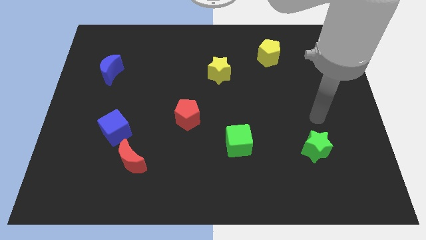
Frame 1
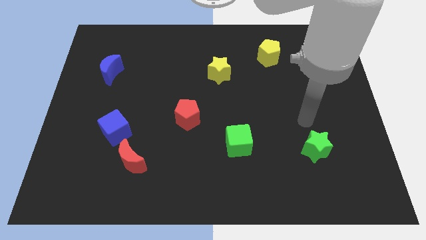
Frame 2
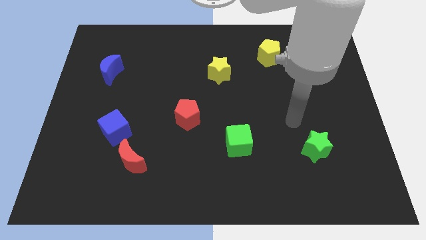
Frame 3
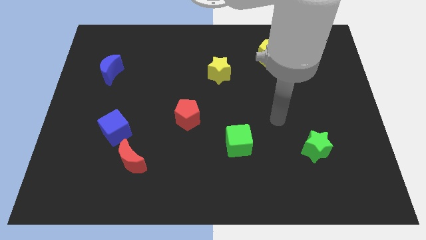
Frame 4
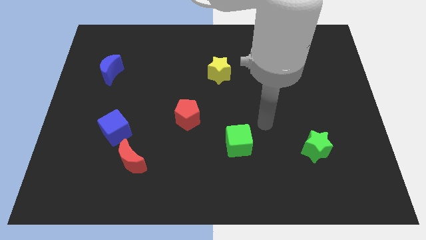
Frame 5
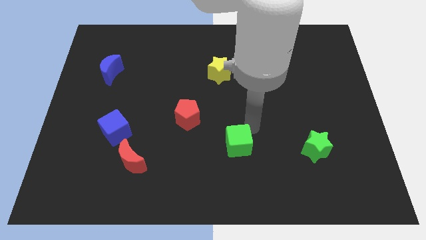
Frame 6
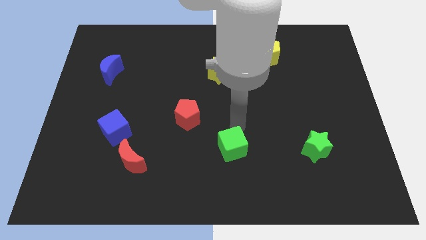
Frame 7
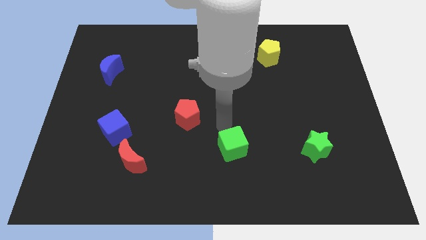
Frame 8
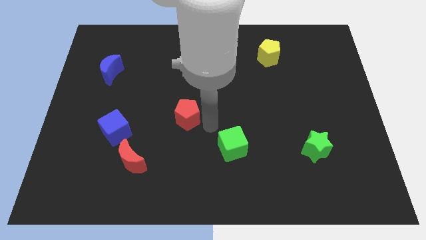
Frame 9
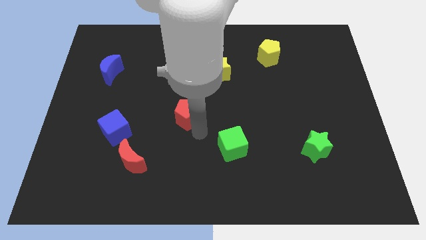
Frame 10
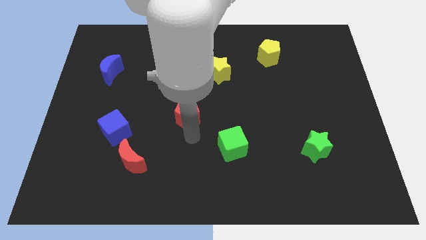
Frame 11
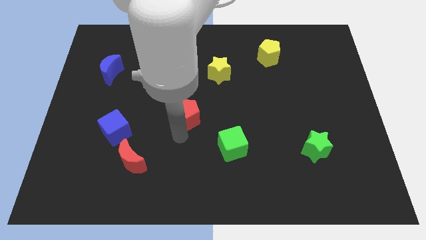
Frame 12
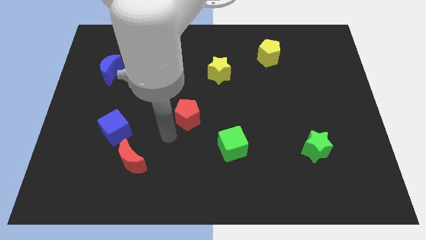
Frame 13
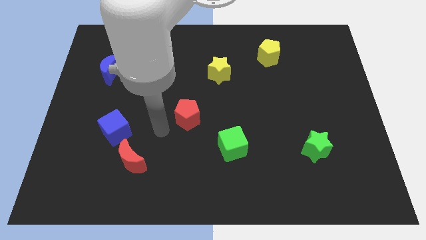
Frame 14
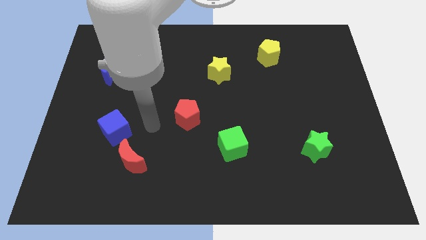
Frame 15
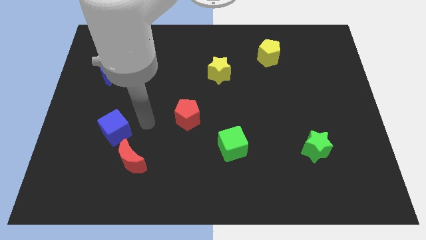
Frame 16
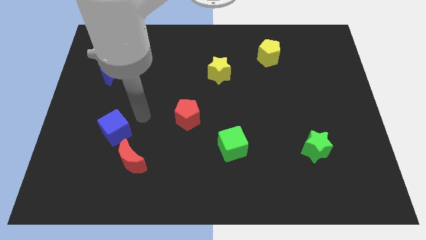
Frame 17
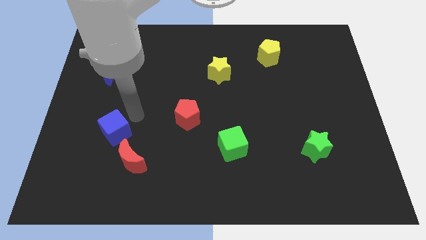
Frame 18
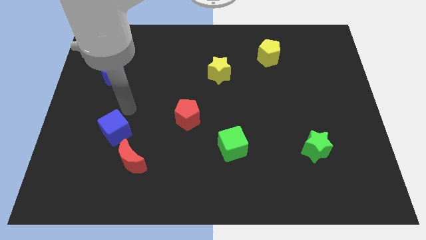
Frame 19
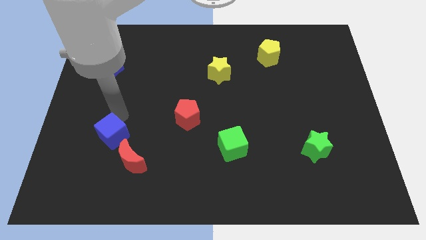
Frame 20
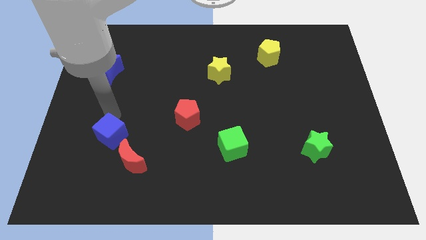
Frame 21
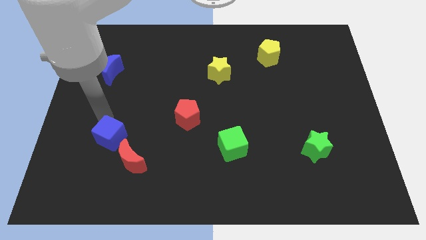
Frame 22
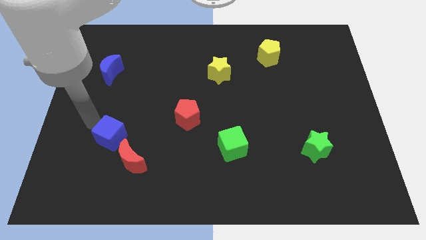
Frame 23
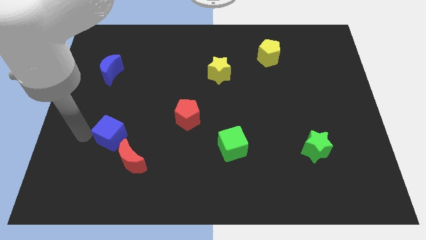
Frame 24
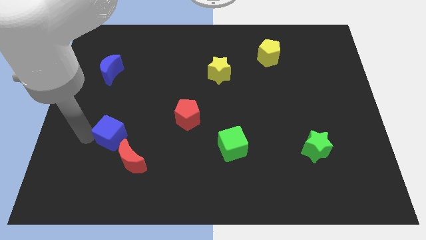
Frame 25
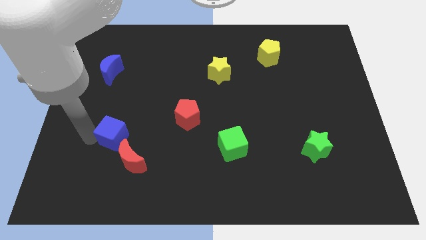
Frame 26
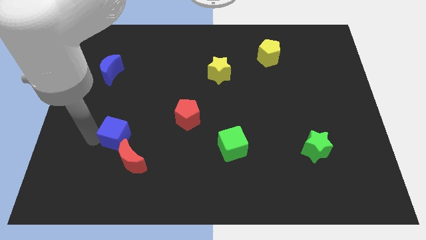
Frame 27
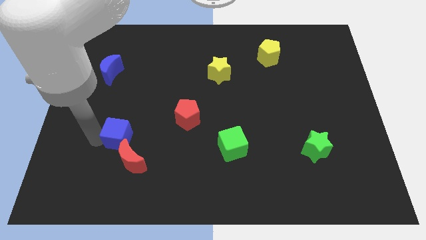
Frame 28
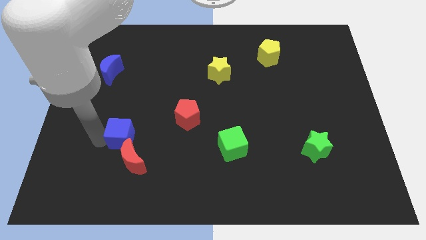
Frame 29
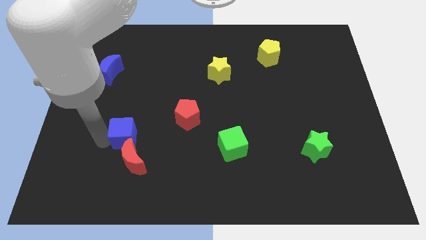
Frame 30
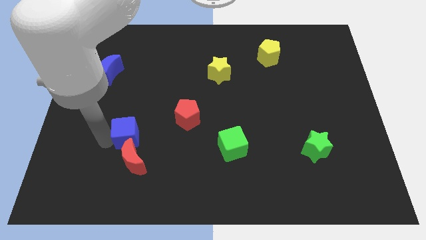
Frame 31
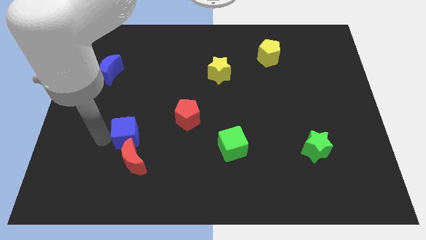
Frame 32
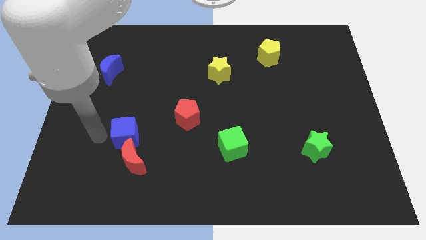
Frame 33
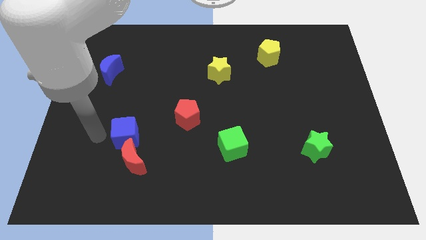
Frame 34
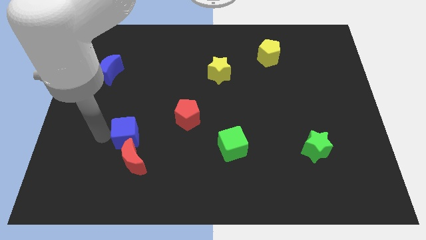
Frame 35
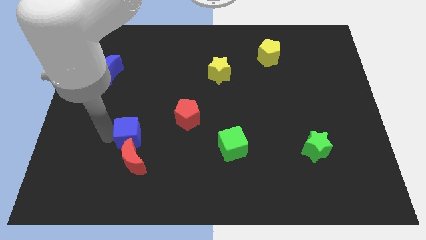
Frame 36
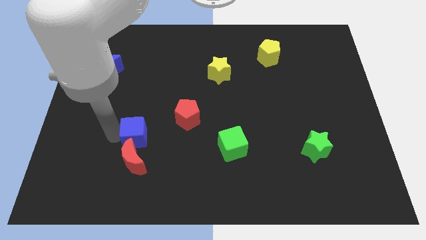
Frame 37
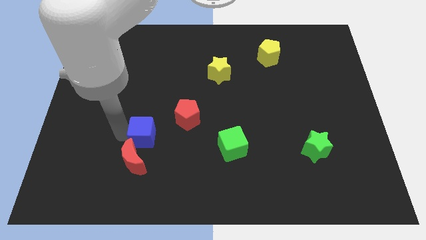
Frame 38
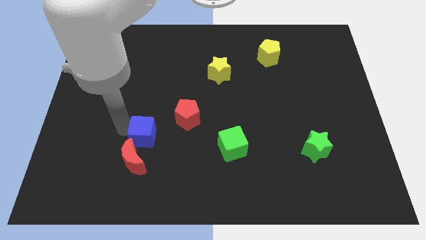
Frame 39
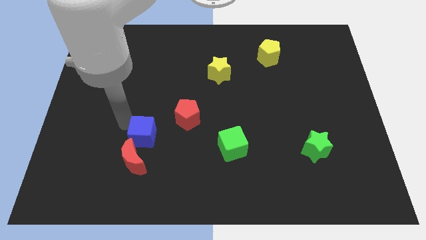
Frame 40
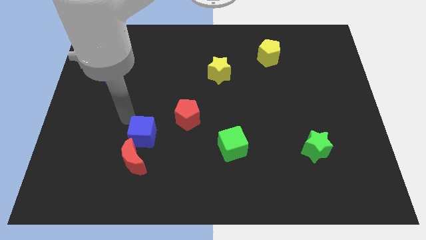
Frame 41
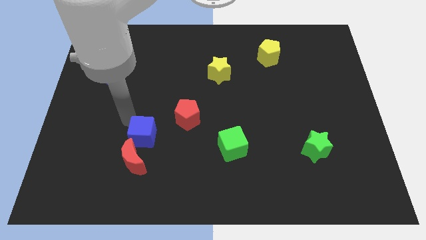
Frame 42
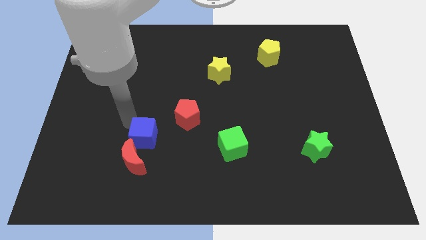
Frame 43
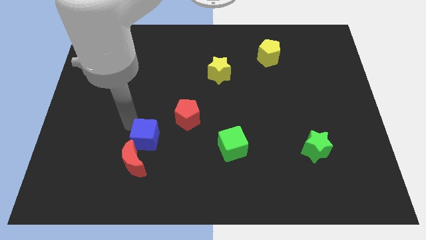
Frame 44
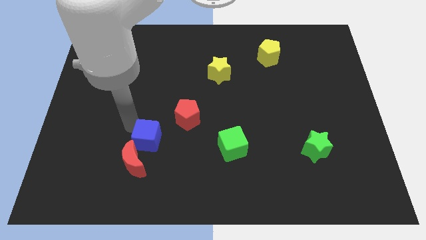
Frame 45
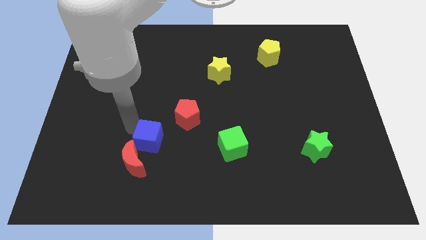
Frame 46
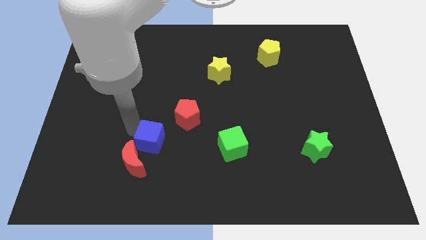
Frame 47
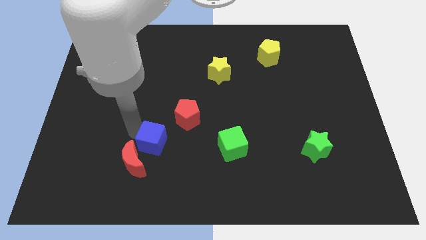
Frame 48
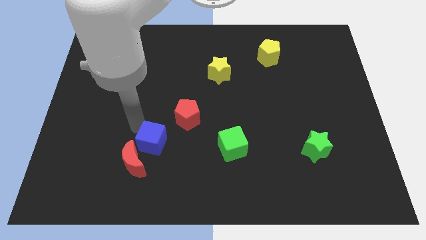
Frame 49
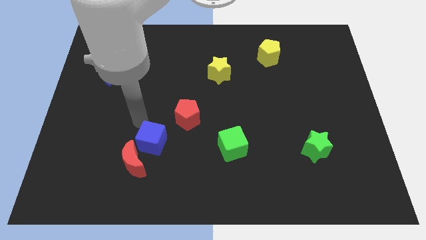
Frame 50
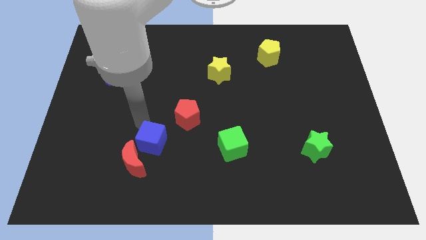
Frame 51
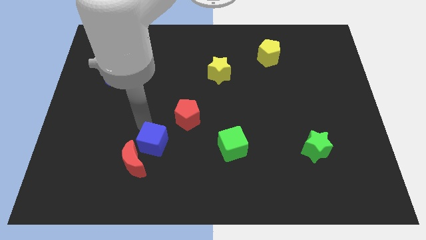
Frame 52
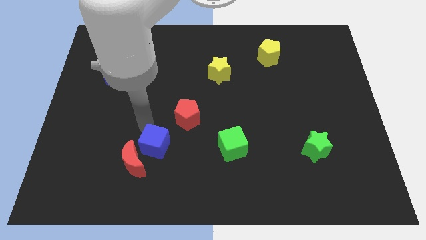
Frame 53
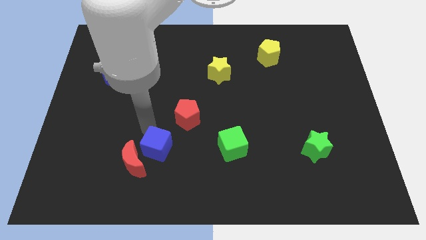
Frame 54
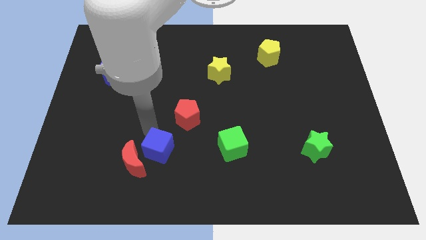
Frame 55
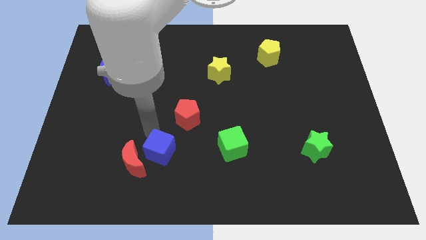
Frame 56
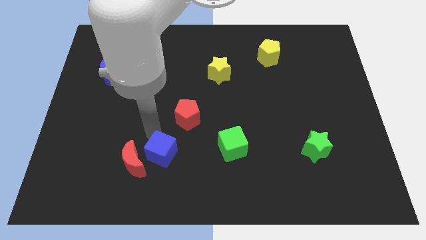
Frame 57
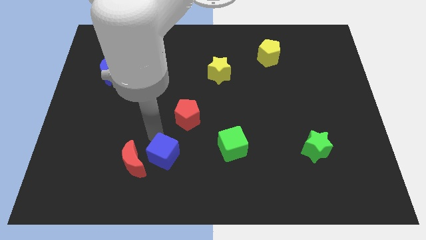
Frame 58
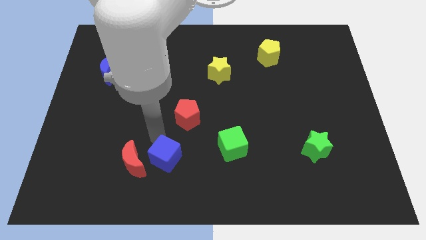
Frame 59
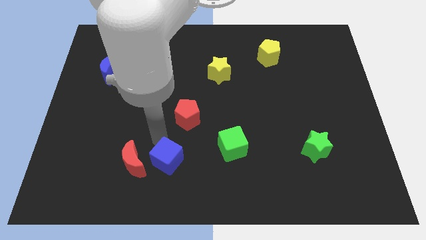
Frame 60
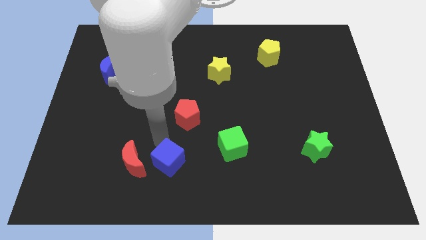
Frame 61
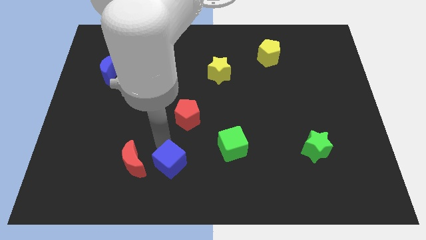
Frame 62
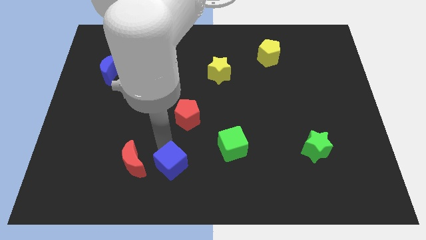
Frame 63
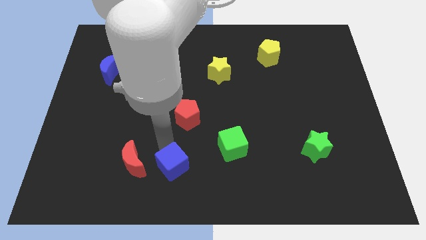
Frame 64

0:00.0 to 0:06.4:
move the blue cube to the bottom side

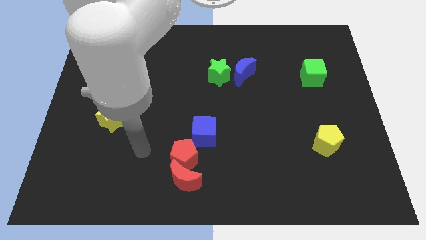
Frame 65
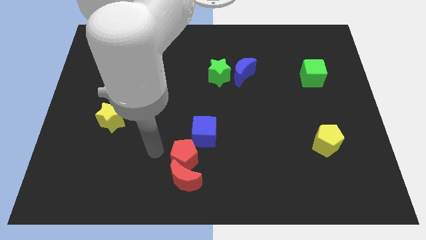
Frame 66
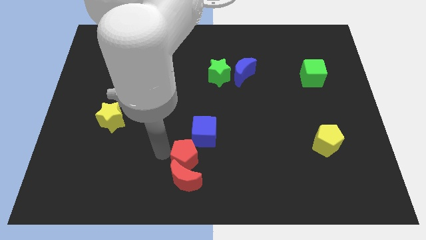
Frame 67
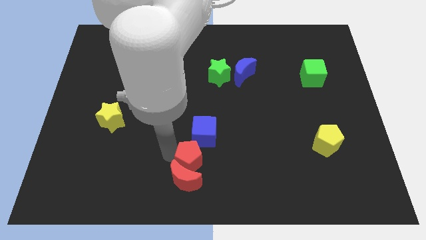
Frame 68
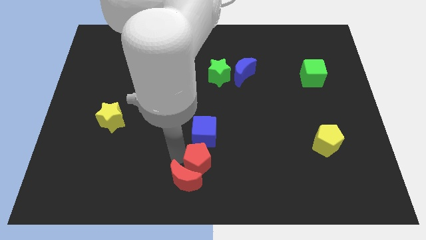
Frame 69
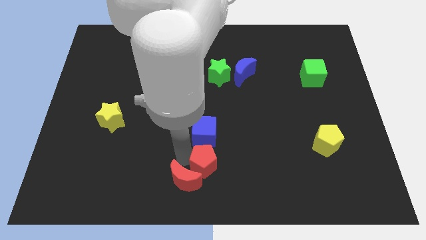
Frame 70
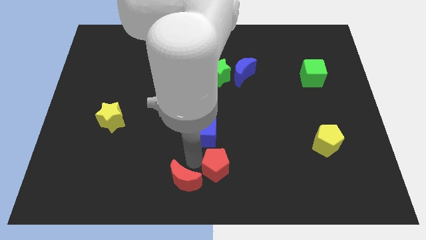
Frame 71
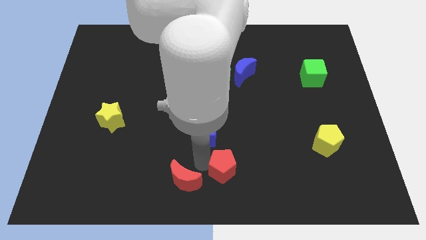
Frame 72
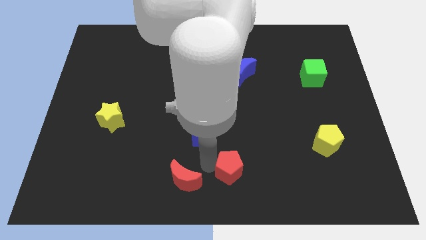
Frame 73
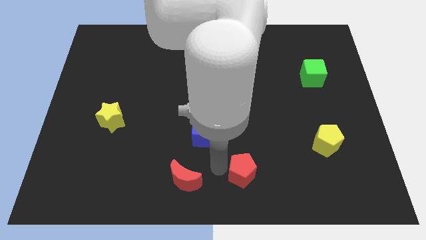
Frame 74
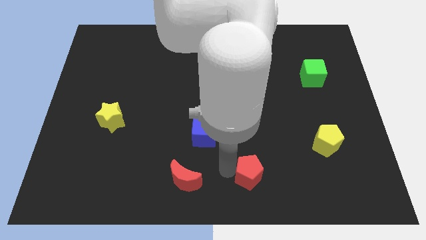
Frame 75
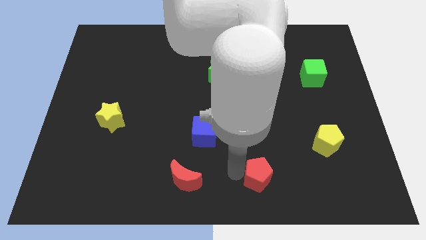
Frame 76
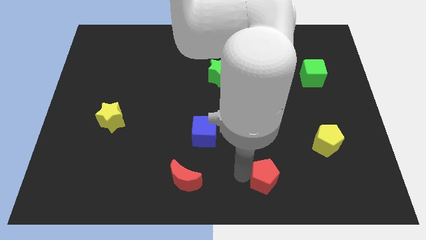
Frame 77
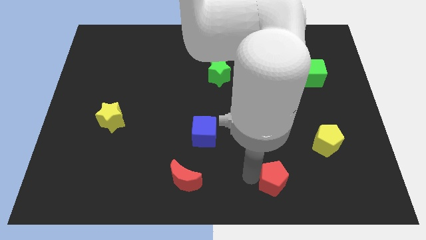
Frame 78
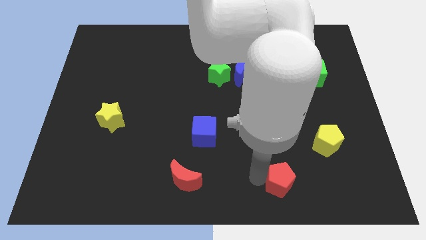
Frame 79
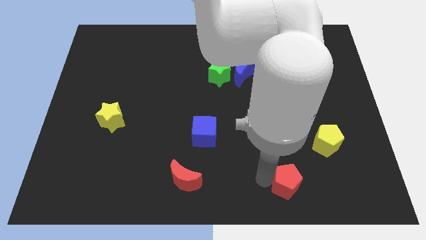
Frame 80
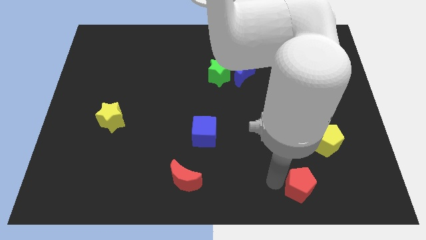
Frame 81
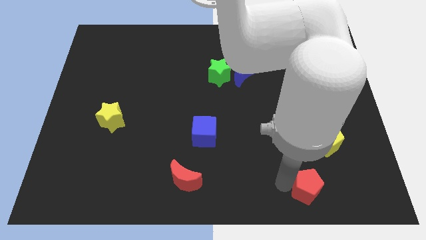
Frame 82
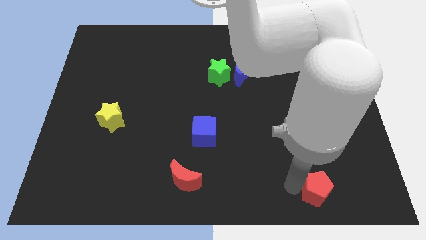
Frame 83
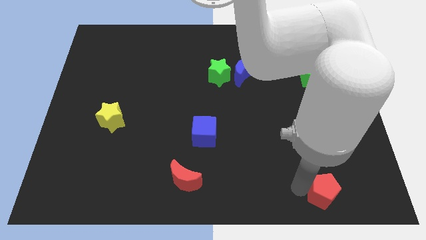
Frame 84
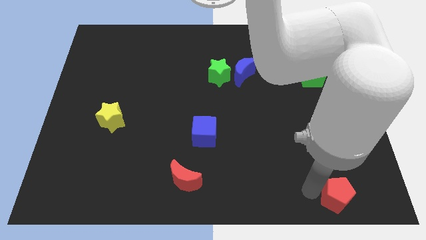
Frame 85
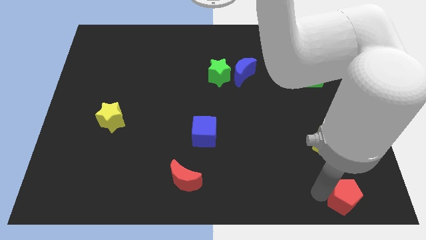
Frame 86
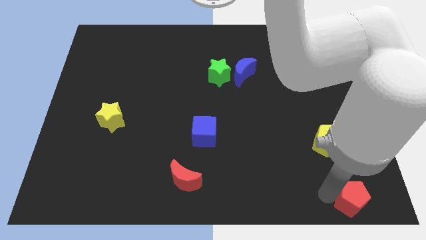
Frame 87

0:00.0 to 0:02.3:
move the red pentagon to the bottom right corner
